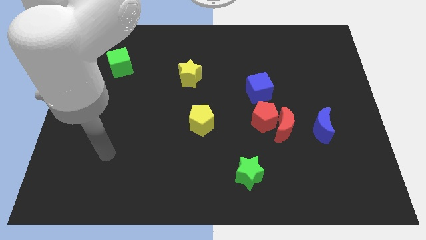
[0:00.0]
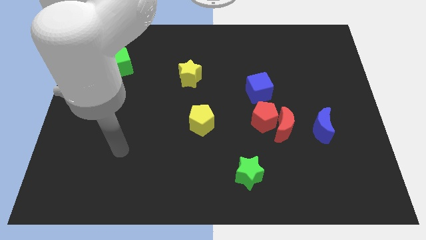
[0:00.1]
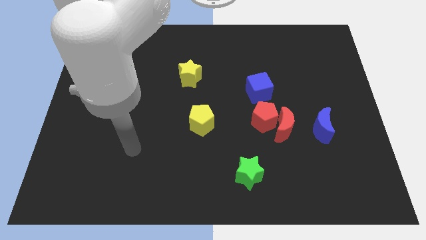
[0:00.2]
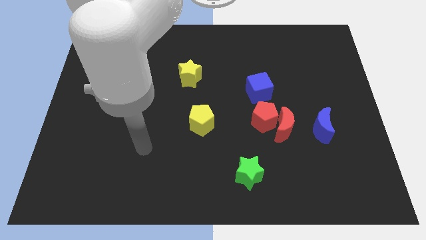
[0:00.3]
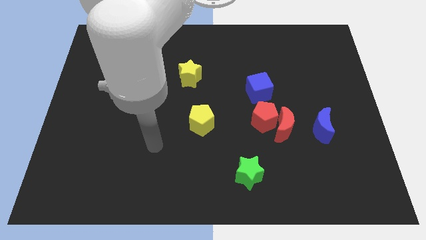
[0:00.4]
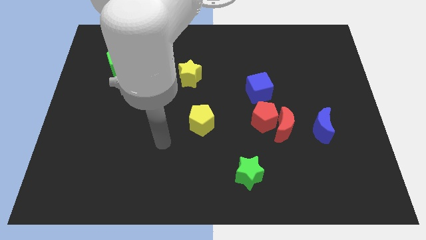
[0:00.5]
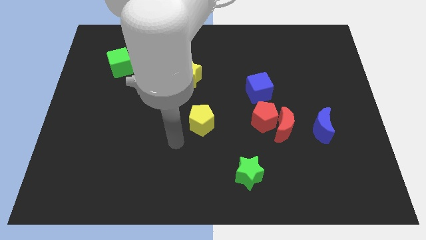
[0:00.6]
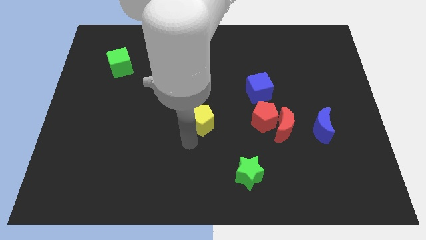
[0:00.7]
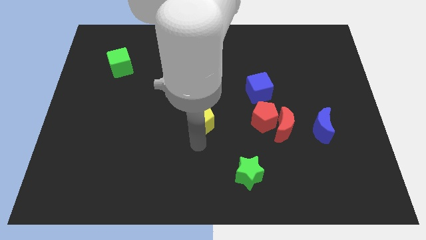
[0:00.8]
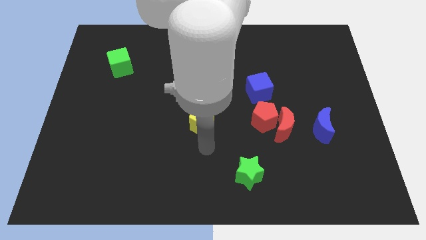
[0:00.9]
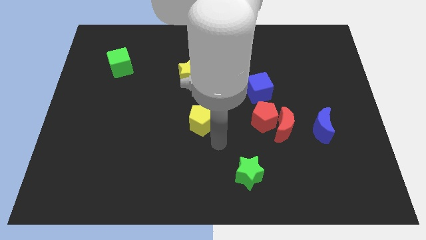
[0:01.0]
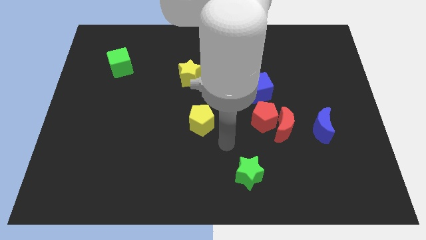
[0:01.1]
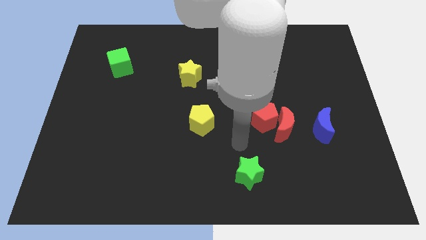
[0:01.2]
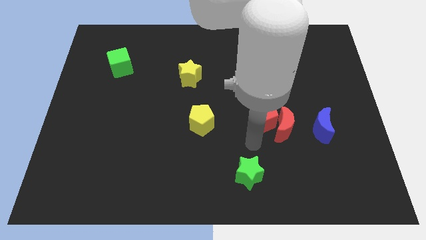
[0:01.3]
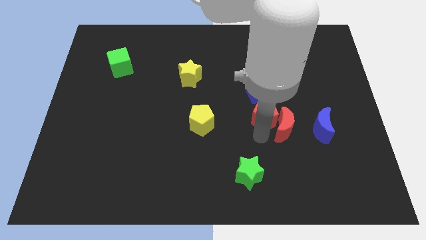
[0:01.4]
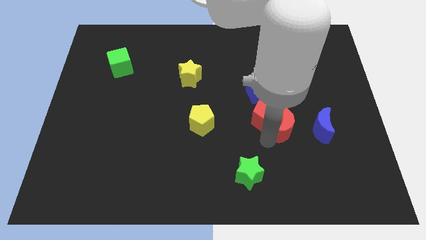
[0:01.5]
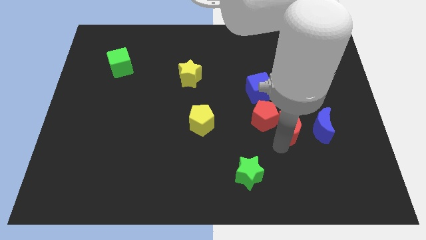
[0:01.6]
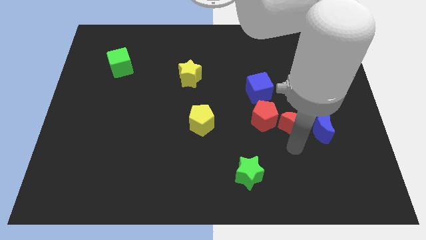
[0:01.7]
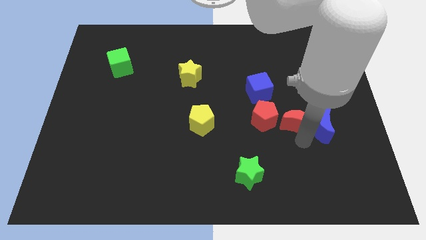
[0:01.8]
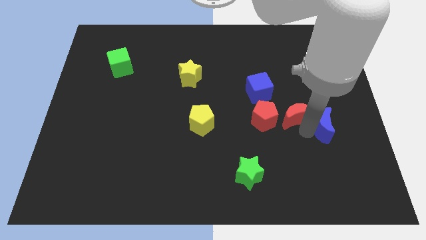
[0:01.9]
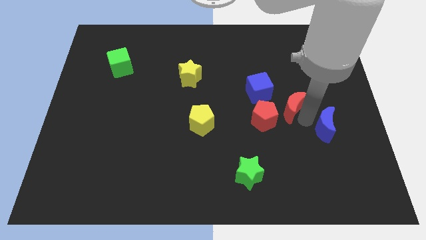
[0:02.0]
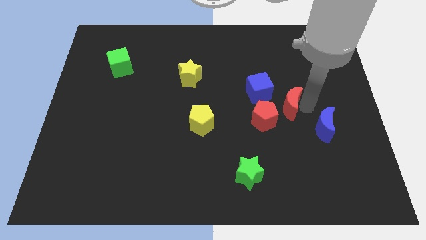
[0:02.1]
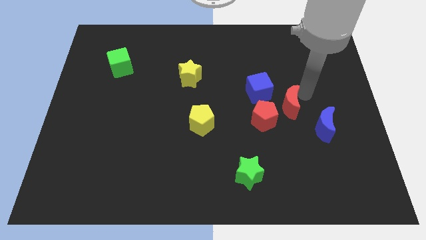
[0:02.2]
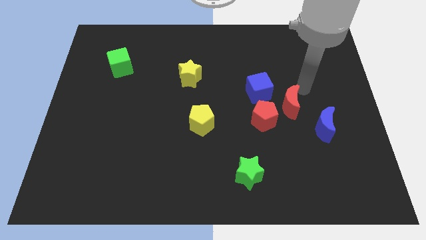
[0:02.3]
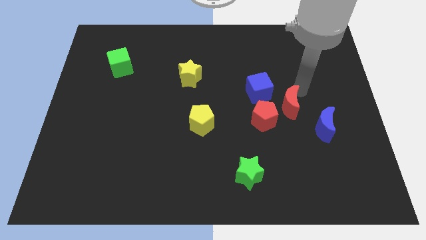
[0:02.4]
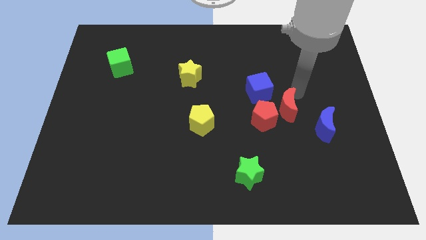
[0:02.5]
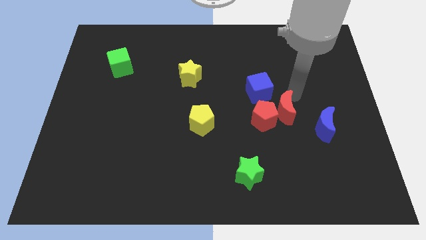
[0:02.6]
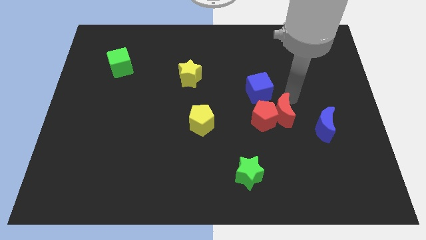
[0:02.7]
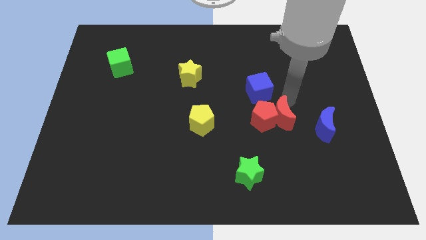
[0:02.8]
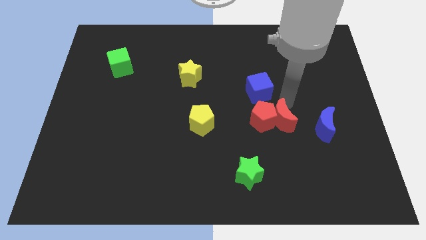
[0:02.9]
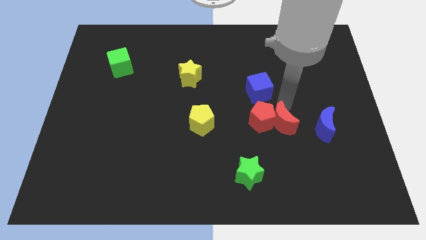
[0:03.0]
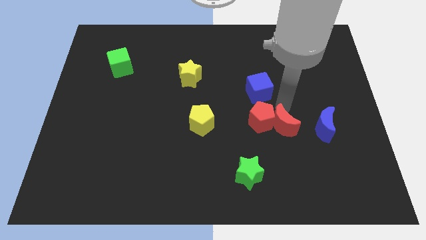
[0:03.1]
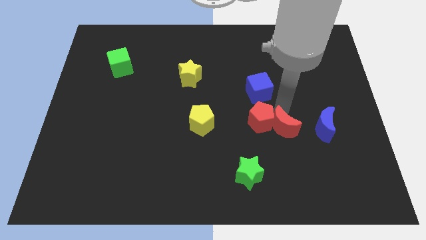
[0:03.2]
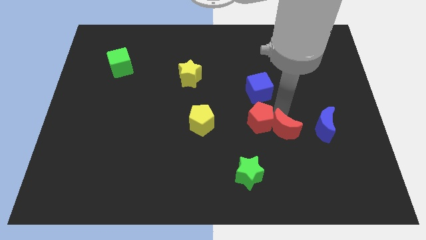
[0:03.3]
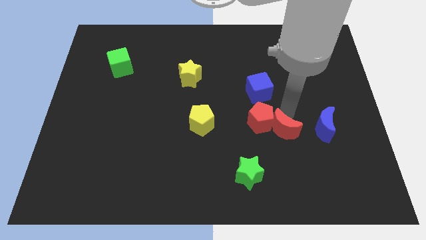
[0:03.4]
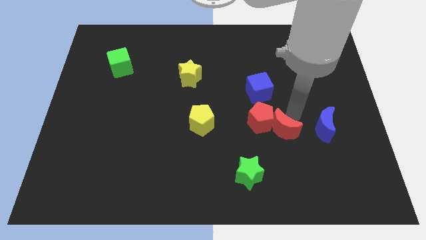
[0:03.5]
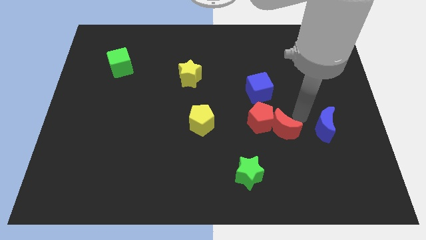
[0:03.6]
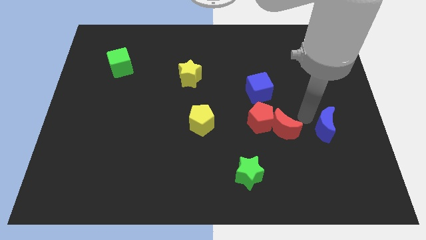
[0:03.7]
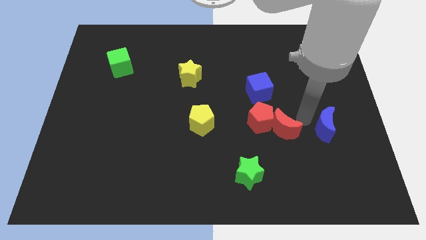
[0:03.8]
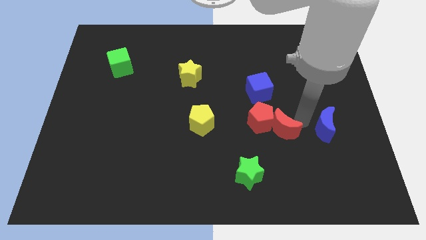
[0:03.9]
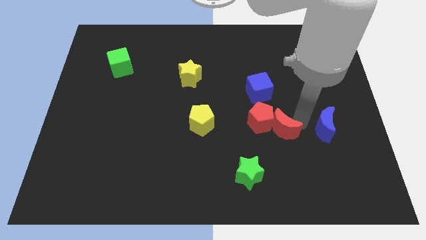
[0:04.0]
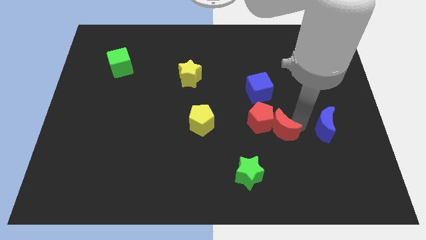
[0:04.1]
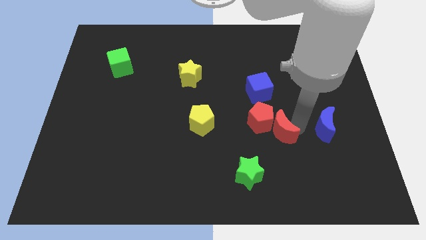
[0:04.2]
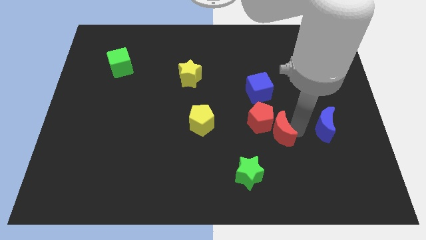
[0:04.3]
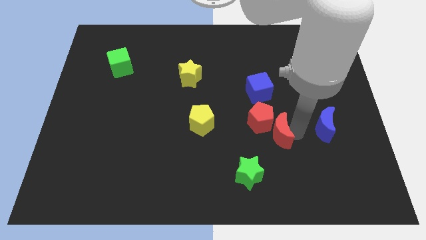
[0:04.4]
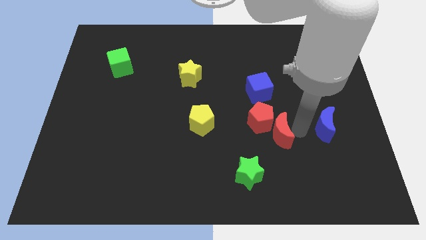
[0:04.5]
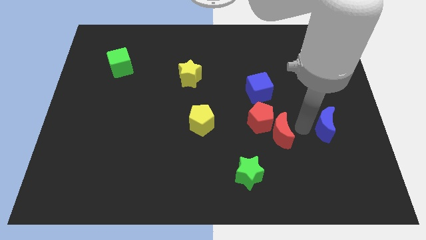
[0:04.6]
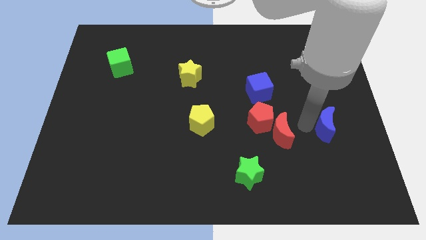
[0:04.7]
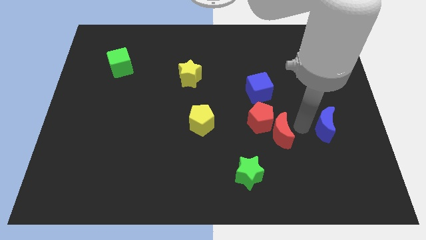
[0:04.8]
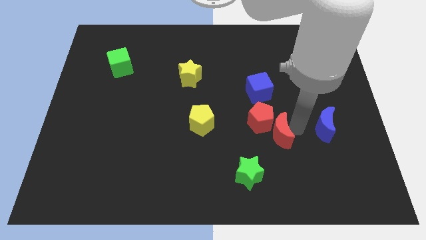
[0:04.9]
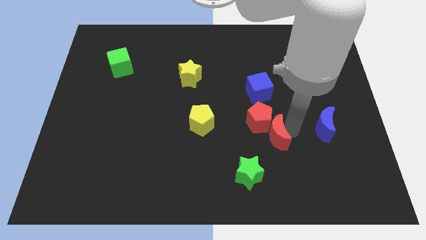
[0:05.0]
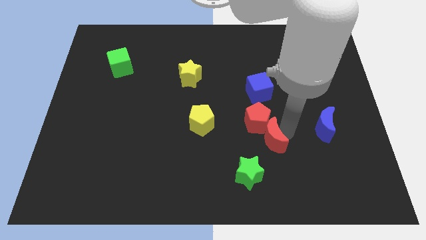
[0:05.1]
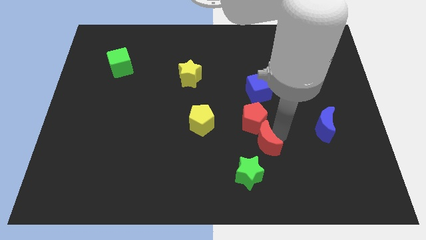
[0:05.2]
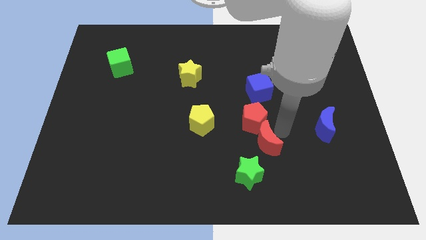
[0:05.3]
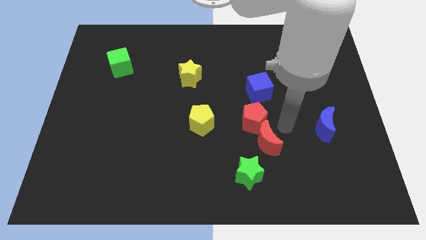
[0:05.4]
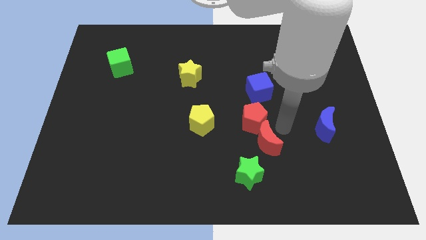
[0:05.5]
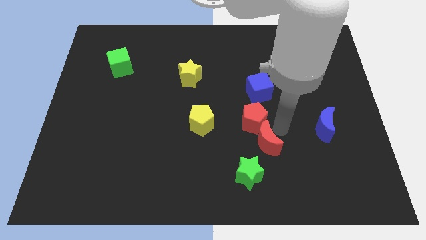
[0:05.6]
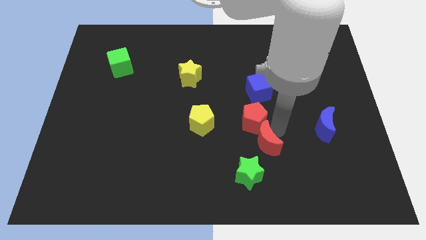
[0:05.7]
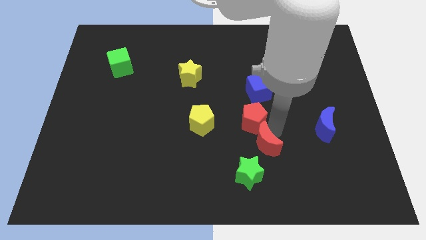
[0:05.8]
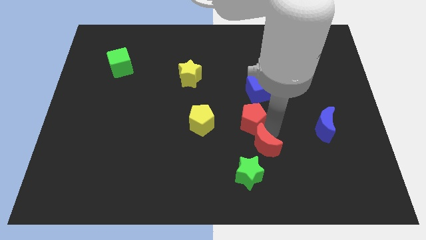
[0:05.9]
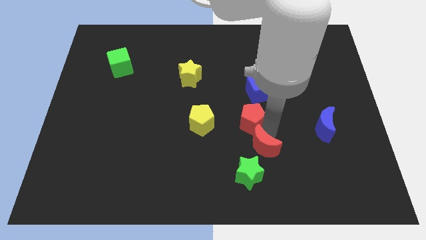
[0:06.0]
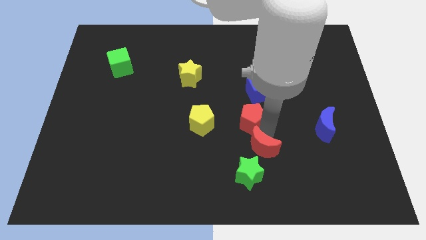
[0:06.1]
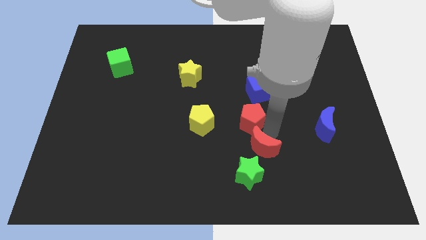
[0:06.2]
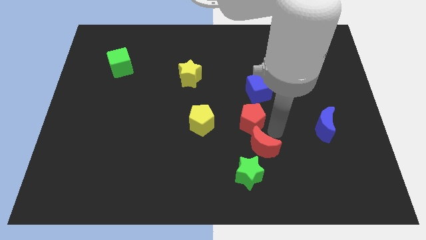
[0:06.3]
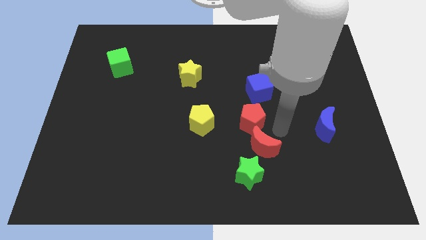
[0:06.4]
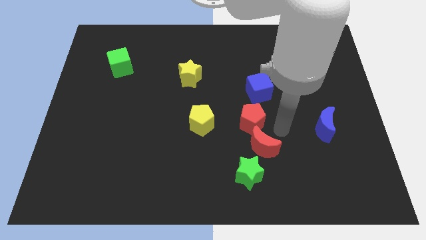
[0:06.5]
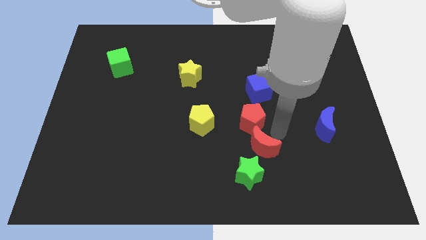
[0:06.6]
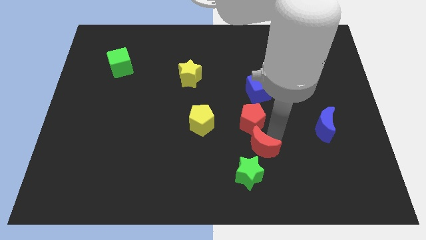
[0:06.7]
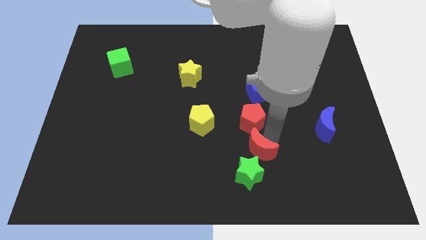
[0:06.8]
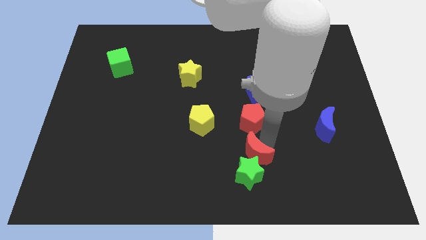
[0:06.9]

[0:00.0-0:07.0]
move the red moon away from the red pentagon and blue moon

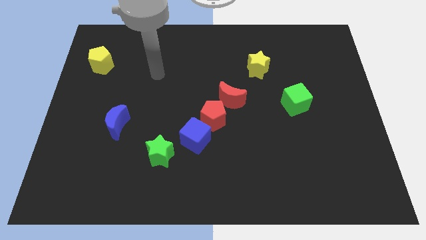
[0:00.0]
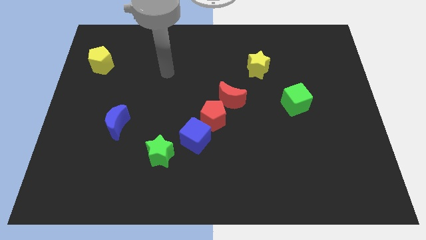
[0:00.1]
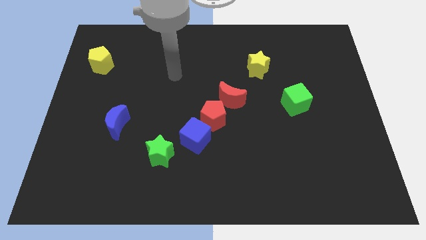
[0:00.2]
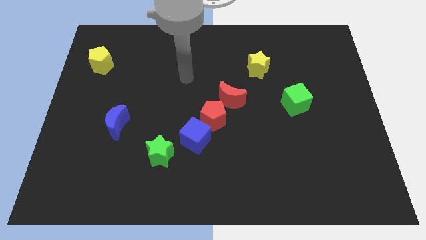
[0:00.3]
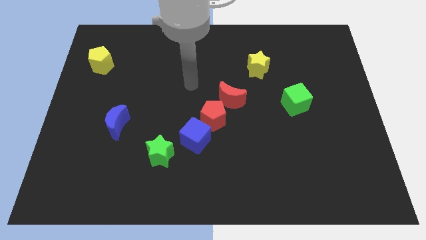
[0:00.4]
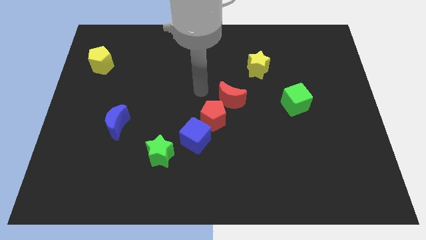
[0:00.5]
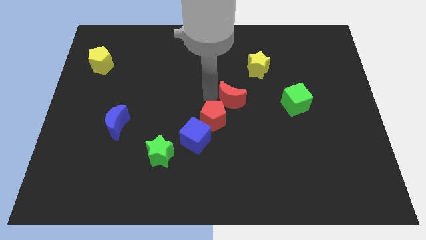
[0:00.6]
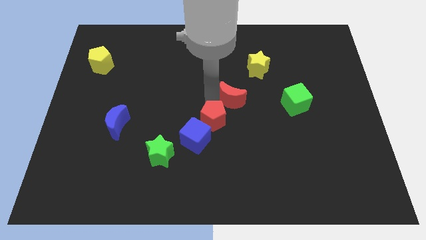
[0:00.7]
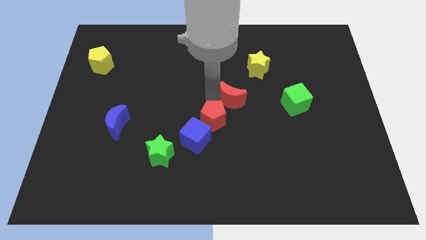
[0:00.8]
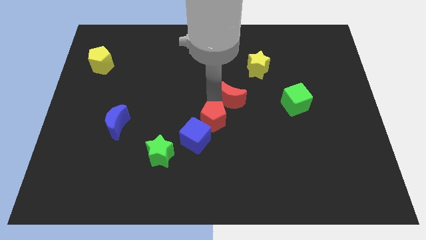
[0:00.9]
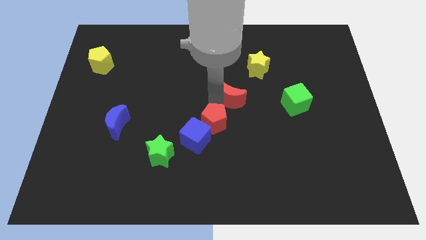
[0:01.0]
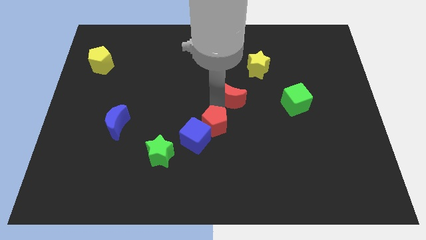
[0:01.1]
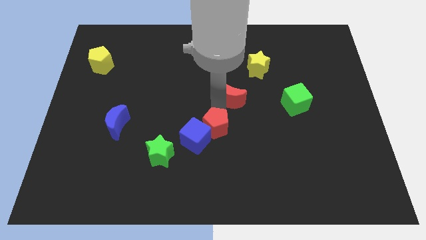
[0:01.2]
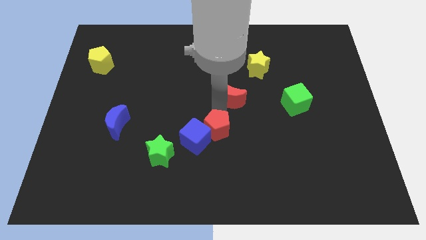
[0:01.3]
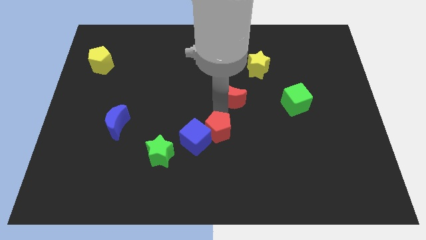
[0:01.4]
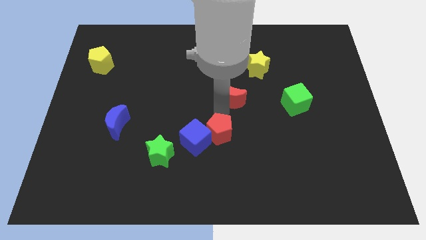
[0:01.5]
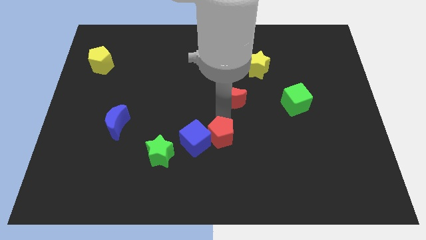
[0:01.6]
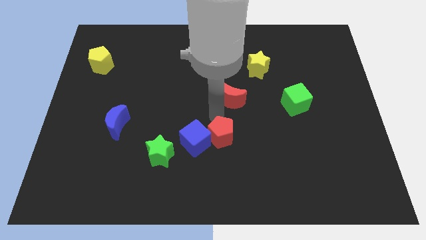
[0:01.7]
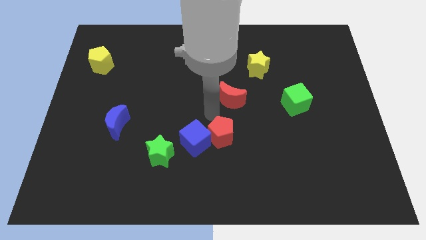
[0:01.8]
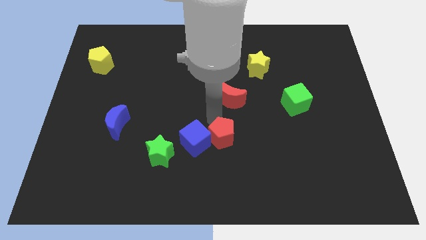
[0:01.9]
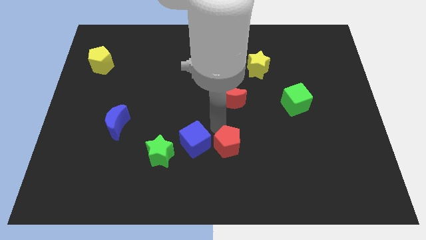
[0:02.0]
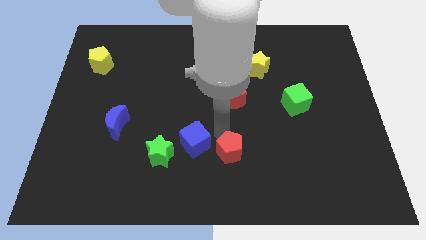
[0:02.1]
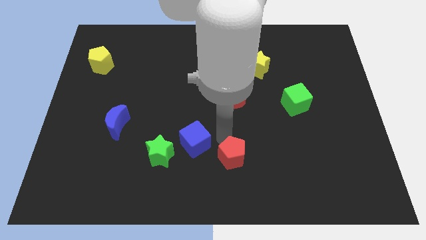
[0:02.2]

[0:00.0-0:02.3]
move the red pentagon away from the blue cube and red moon

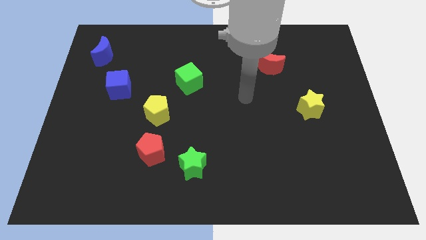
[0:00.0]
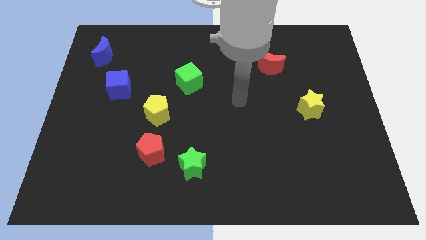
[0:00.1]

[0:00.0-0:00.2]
pull the red pentagon apart from the green star

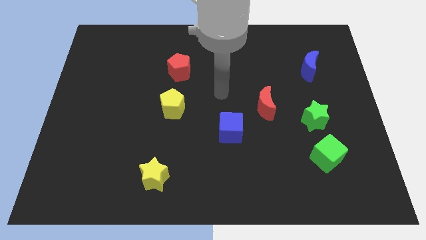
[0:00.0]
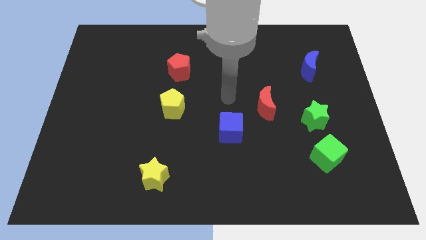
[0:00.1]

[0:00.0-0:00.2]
pull the green cube apart from the green star
